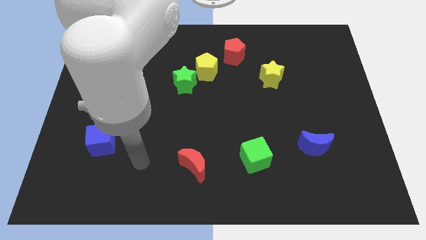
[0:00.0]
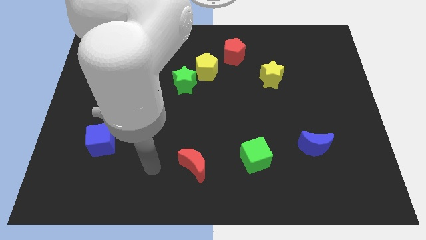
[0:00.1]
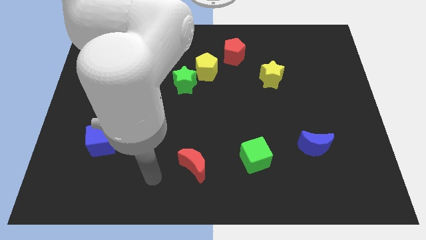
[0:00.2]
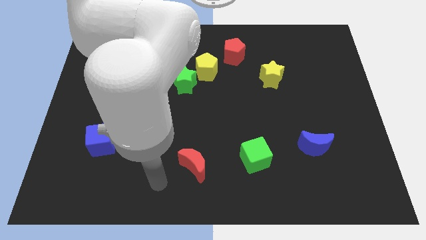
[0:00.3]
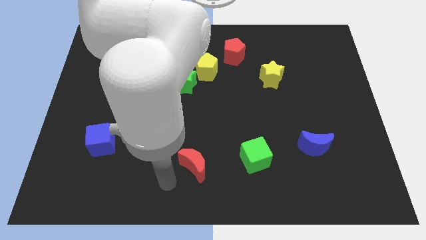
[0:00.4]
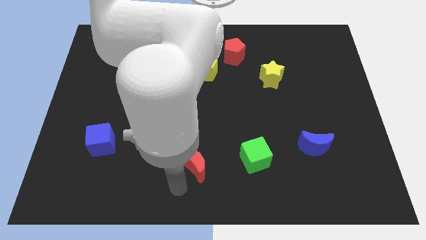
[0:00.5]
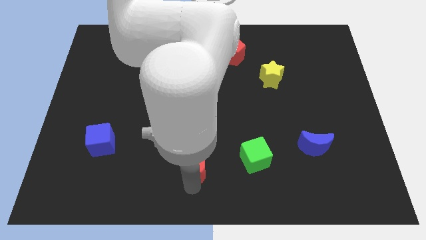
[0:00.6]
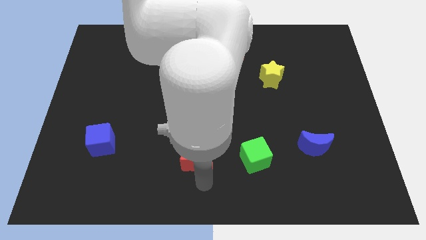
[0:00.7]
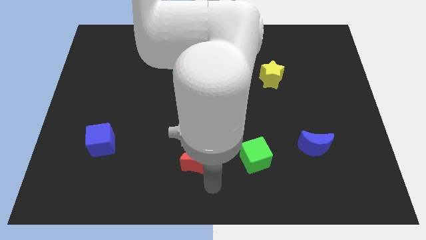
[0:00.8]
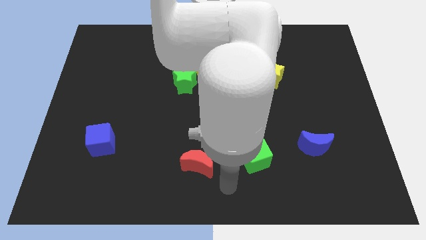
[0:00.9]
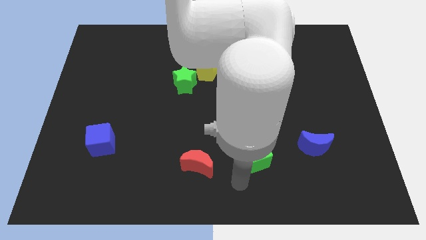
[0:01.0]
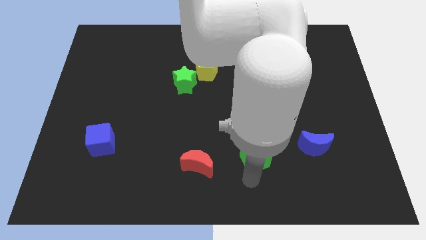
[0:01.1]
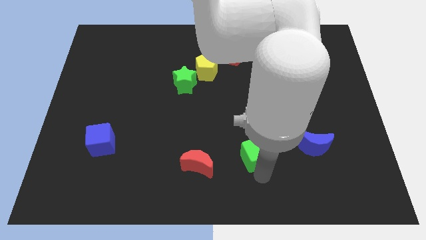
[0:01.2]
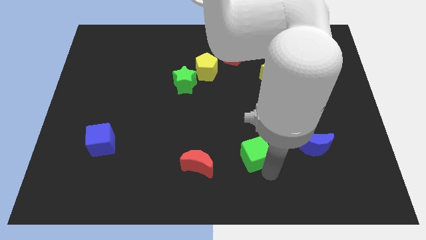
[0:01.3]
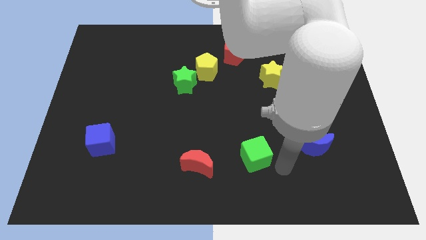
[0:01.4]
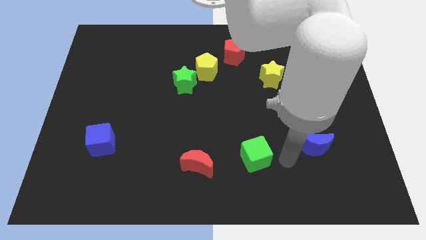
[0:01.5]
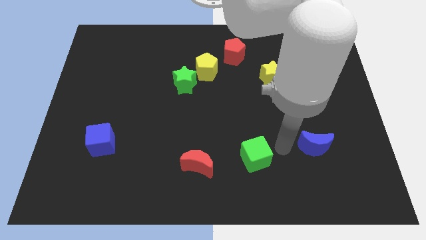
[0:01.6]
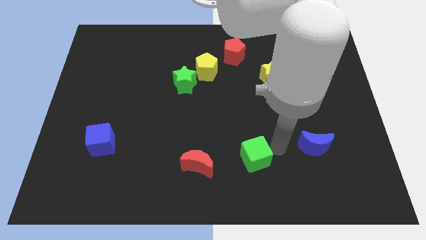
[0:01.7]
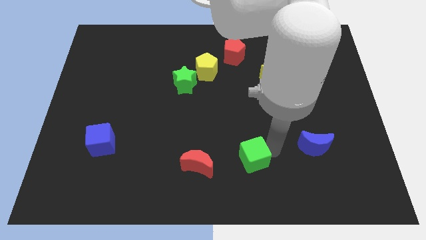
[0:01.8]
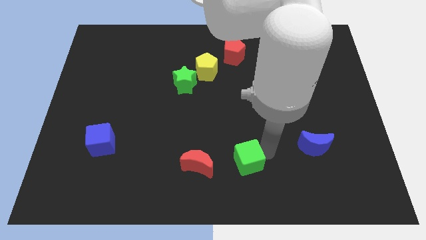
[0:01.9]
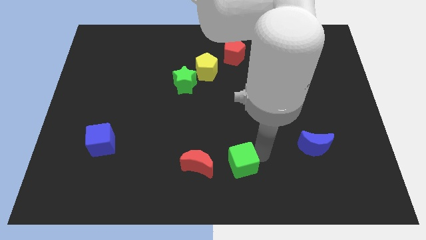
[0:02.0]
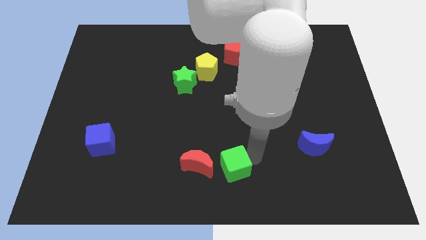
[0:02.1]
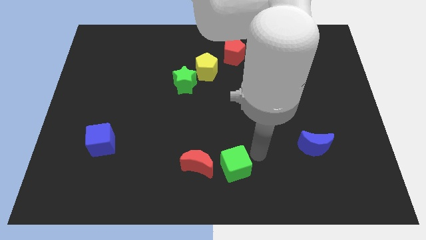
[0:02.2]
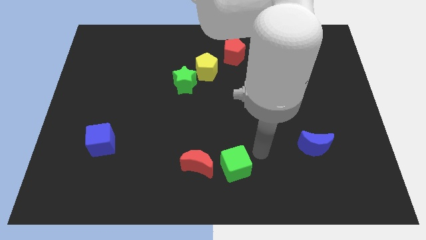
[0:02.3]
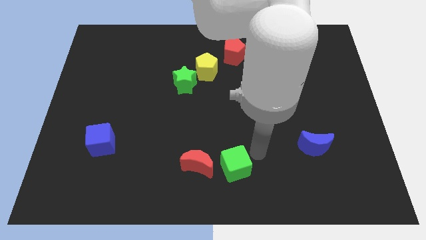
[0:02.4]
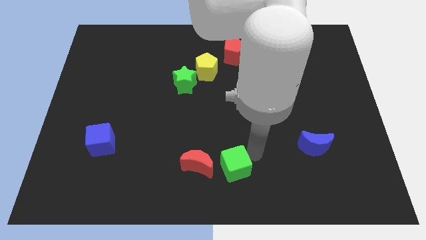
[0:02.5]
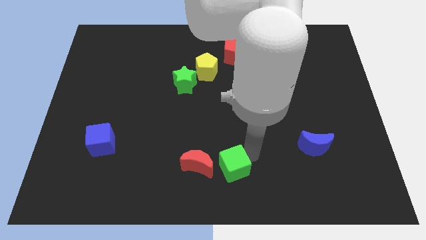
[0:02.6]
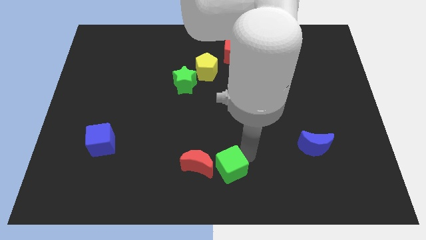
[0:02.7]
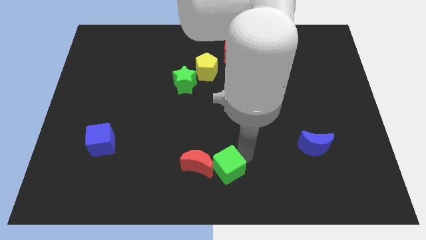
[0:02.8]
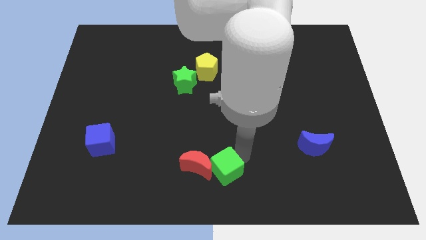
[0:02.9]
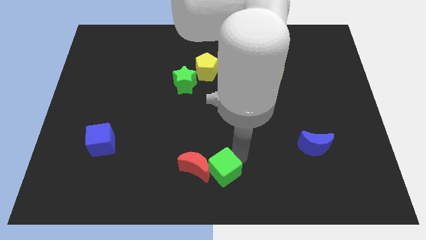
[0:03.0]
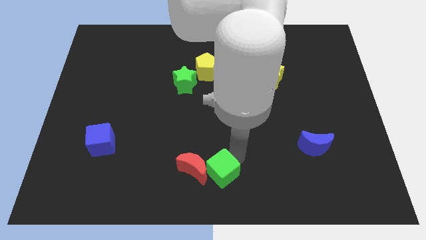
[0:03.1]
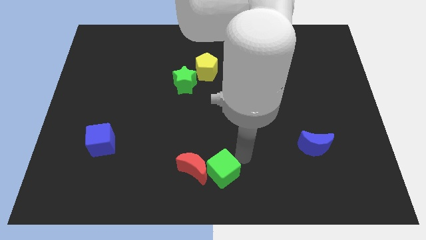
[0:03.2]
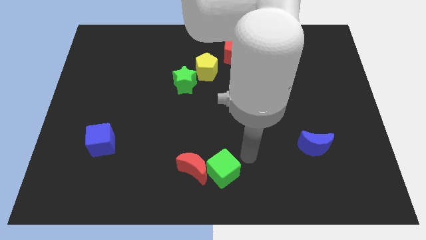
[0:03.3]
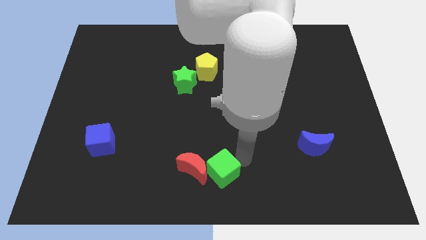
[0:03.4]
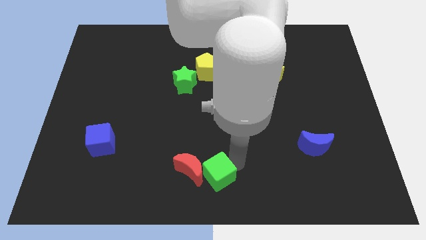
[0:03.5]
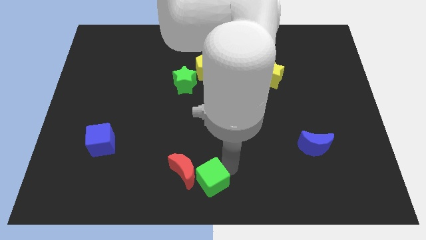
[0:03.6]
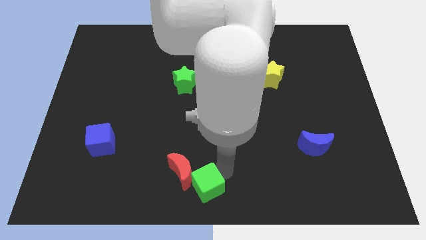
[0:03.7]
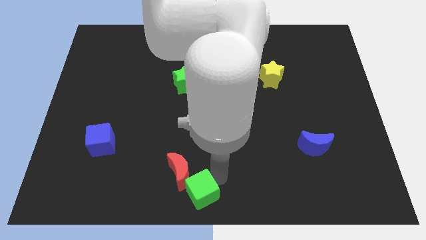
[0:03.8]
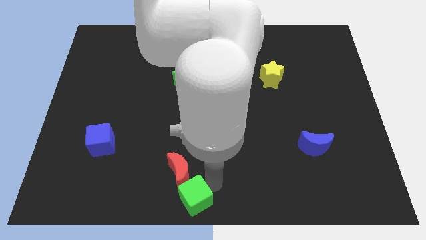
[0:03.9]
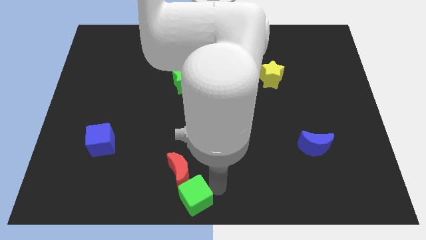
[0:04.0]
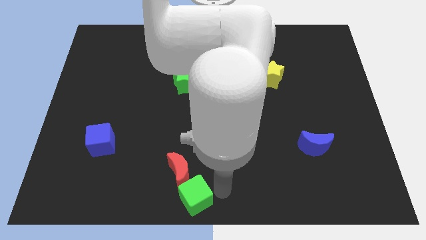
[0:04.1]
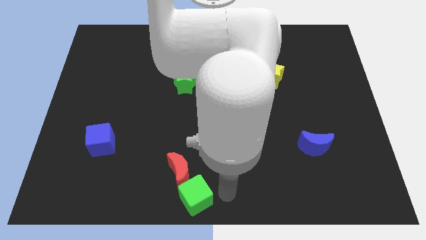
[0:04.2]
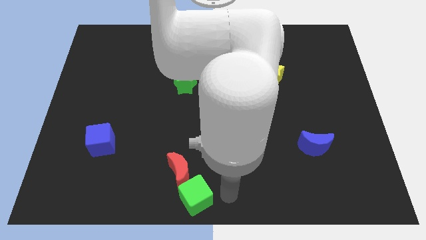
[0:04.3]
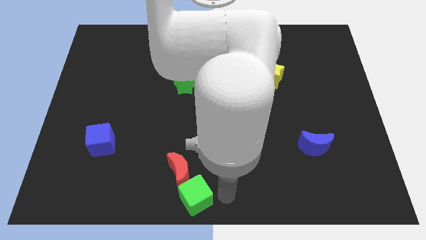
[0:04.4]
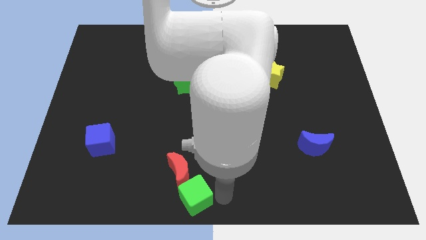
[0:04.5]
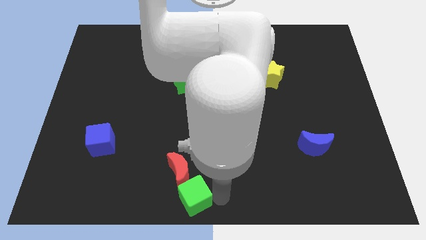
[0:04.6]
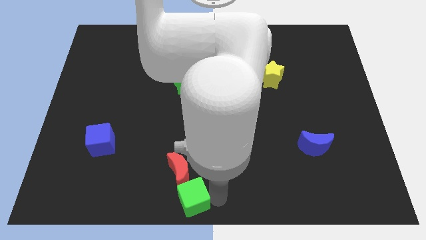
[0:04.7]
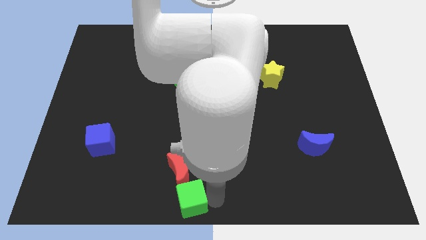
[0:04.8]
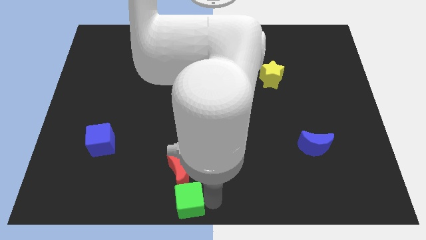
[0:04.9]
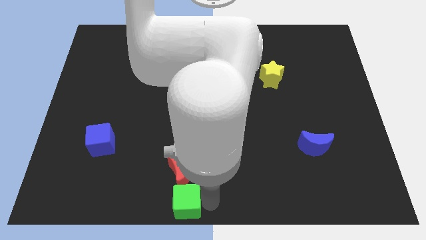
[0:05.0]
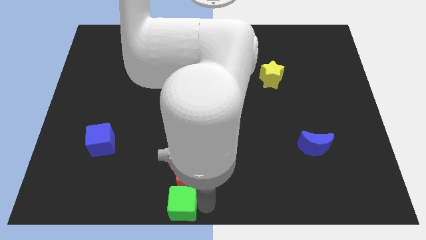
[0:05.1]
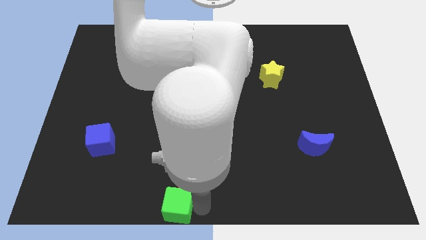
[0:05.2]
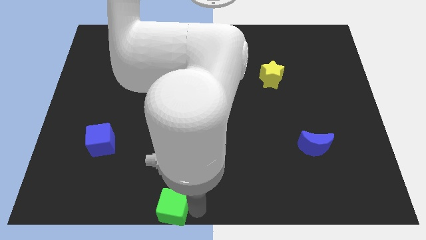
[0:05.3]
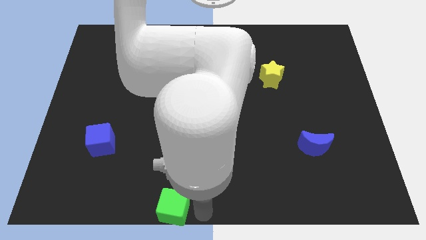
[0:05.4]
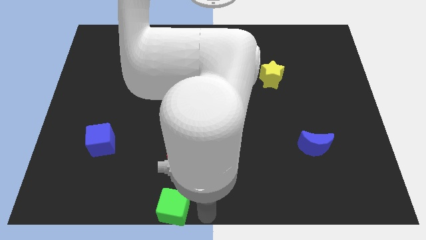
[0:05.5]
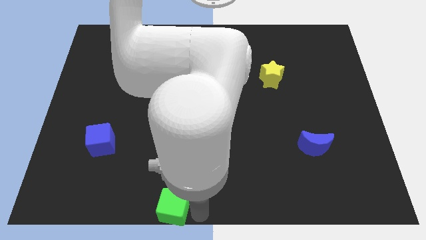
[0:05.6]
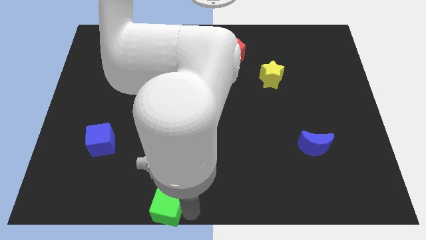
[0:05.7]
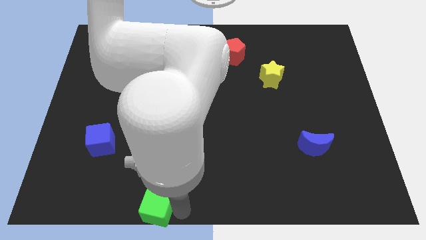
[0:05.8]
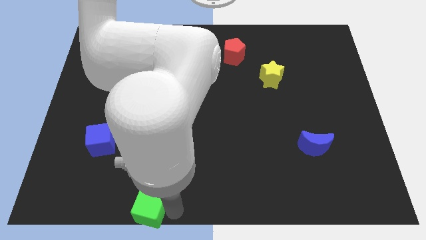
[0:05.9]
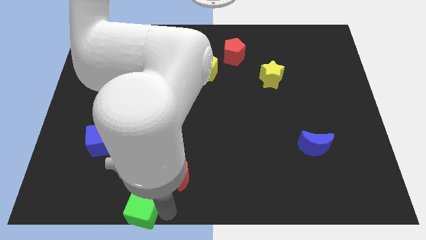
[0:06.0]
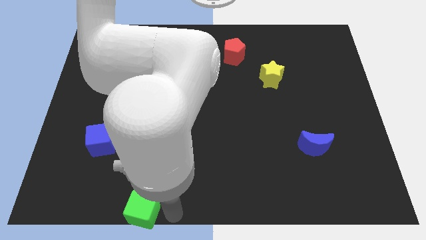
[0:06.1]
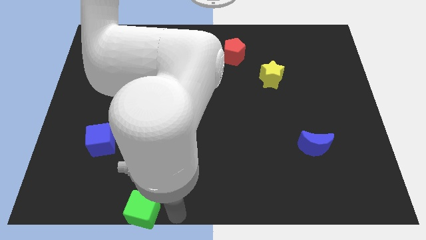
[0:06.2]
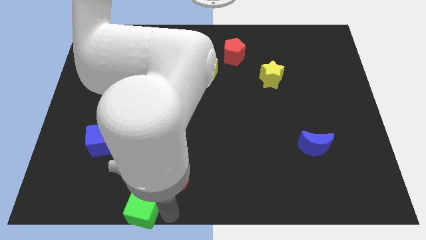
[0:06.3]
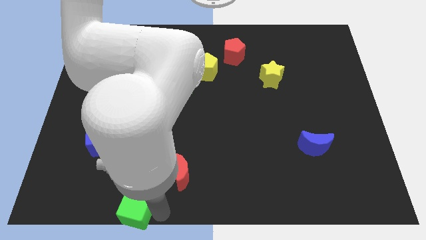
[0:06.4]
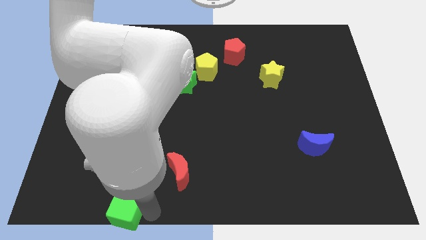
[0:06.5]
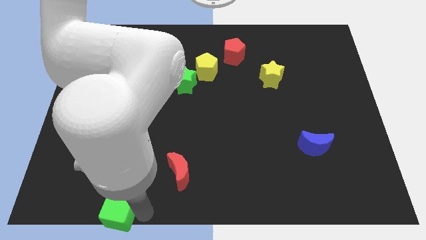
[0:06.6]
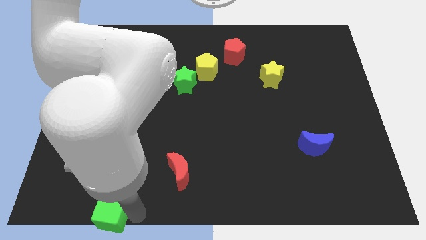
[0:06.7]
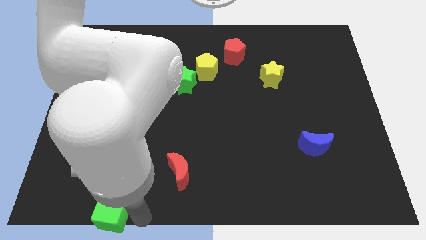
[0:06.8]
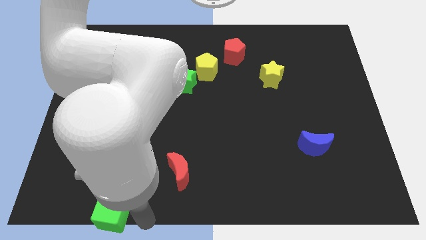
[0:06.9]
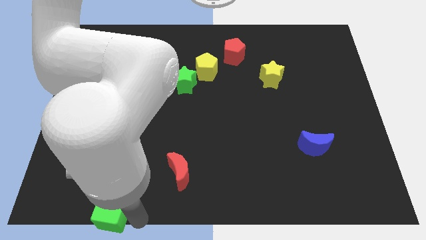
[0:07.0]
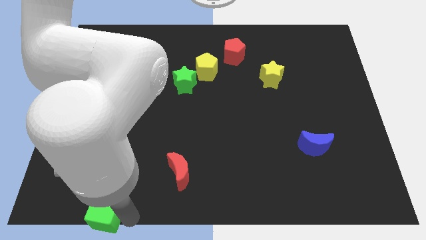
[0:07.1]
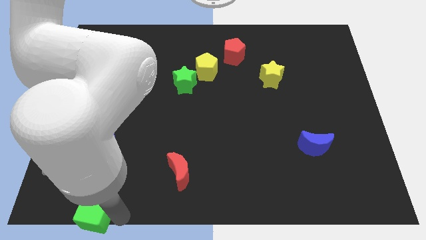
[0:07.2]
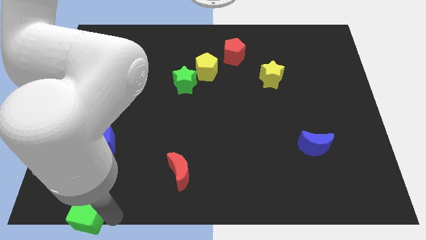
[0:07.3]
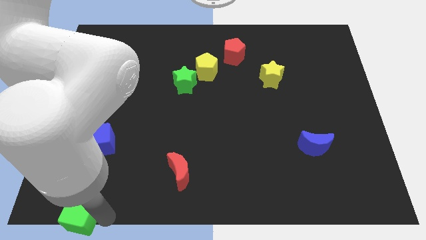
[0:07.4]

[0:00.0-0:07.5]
slide the green cube to the lower left corner
